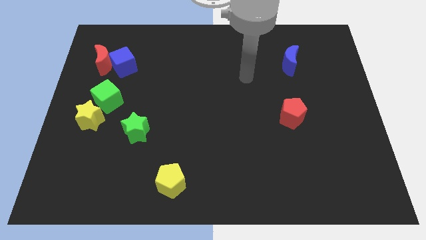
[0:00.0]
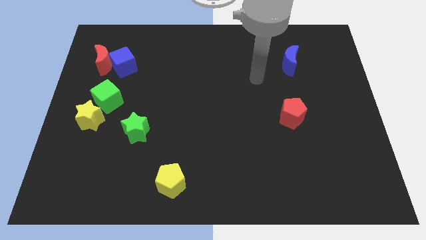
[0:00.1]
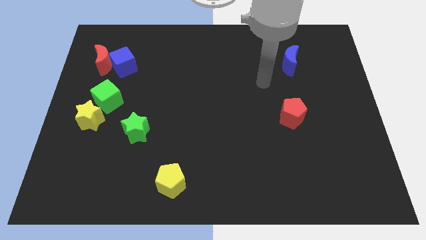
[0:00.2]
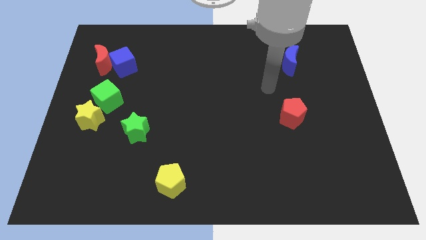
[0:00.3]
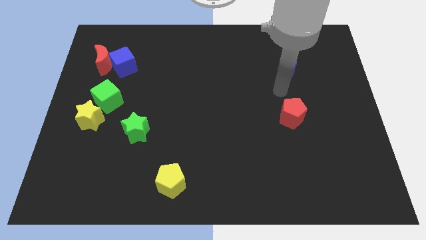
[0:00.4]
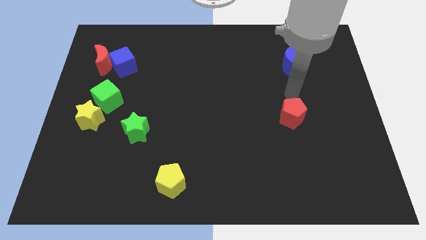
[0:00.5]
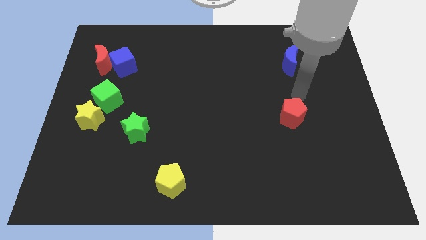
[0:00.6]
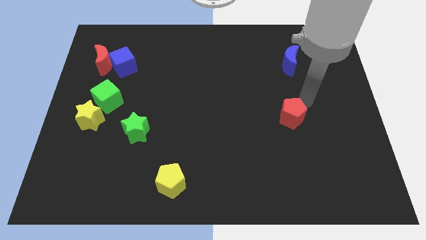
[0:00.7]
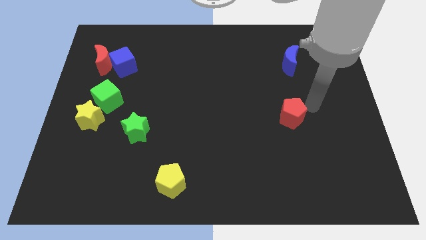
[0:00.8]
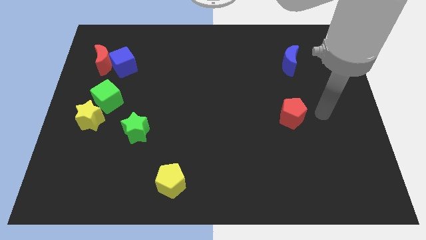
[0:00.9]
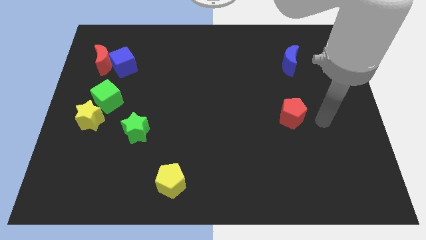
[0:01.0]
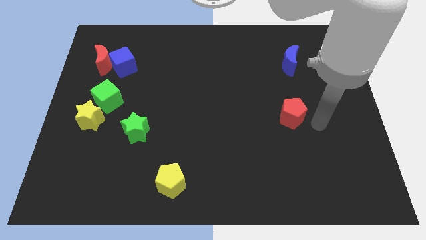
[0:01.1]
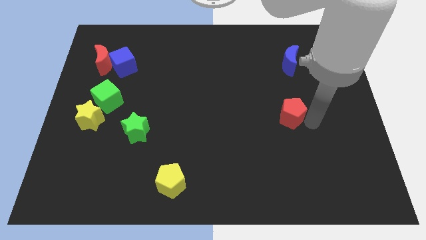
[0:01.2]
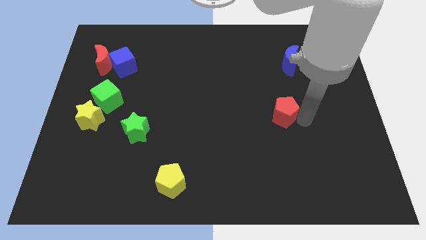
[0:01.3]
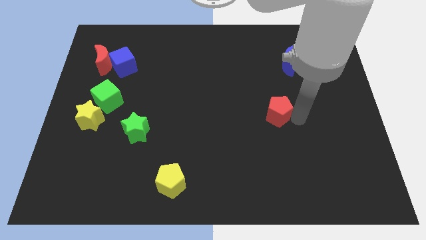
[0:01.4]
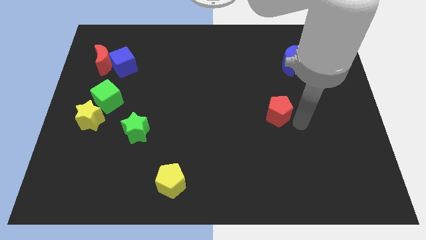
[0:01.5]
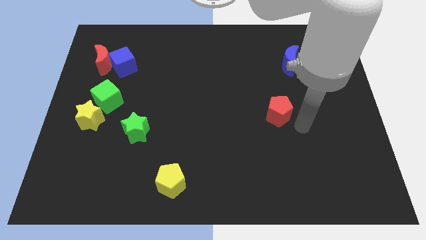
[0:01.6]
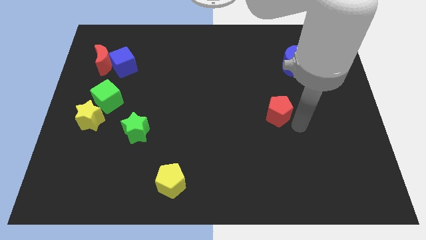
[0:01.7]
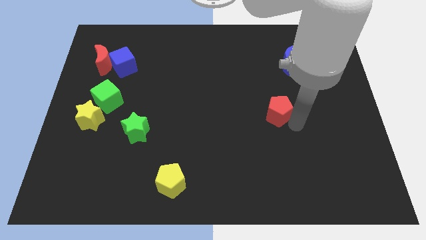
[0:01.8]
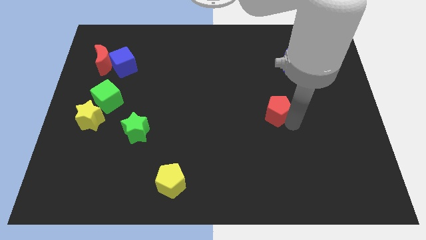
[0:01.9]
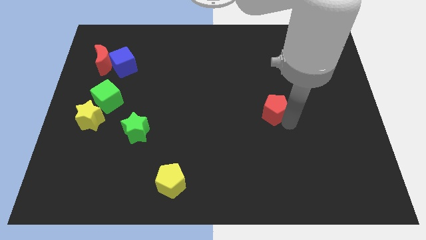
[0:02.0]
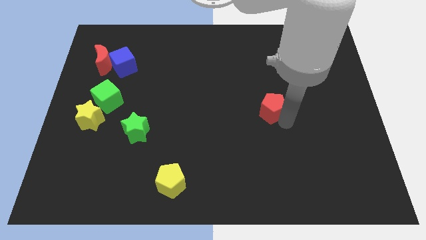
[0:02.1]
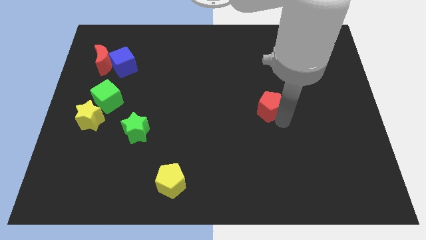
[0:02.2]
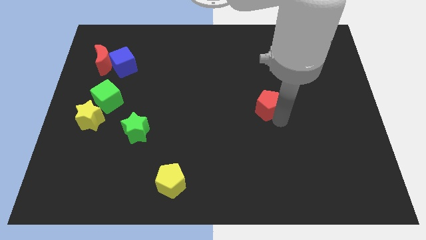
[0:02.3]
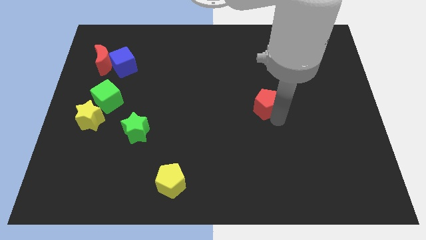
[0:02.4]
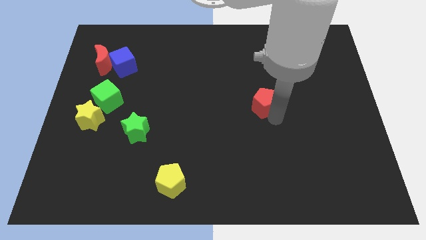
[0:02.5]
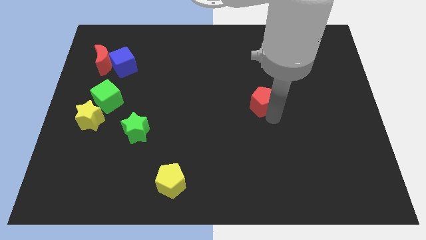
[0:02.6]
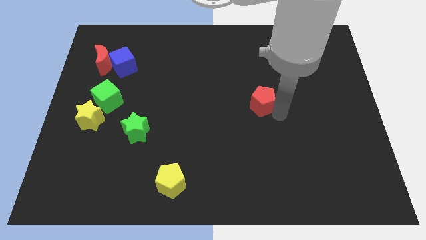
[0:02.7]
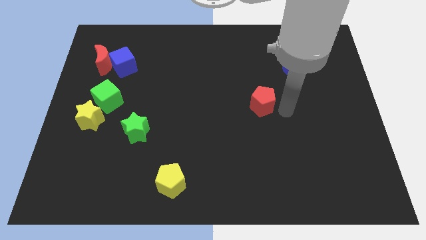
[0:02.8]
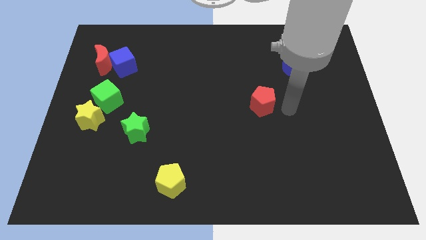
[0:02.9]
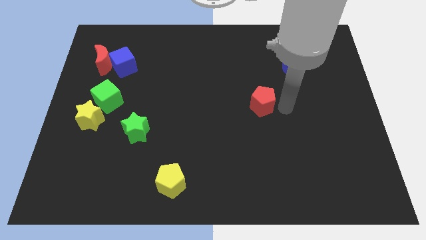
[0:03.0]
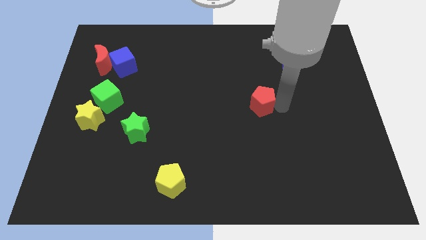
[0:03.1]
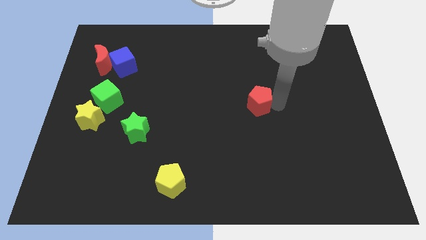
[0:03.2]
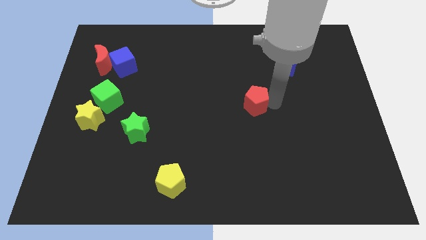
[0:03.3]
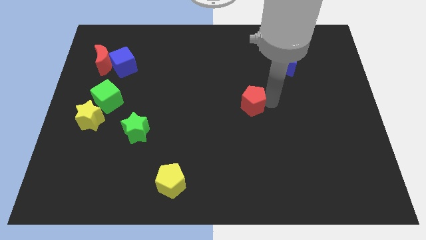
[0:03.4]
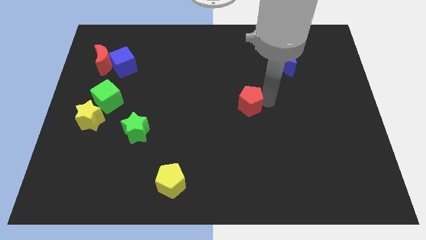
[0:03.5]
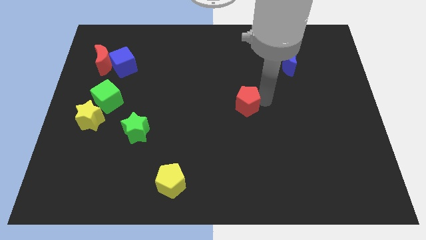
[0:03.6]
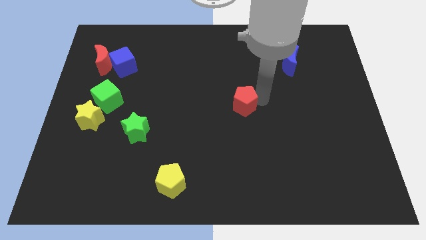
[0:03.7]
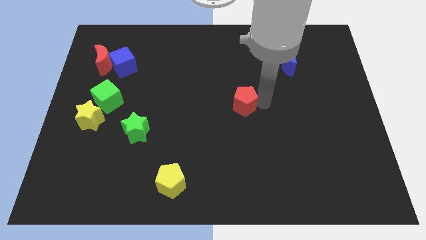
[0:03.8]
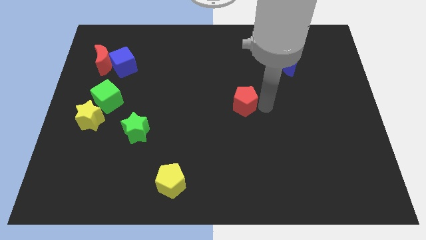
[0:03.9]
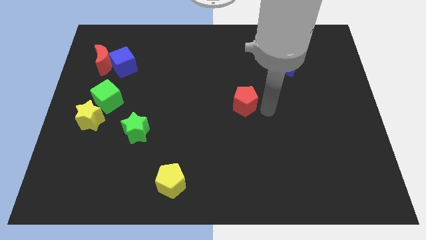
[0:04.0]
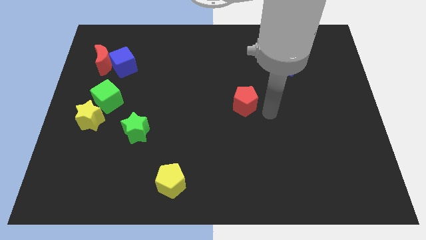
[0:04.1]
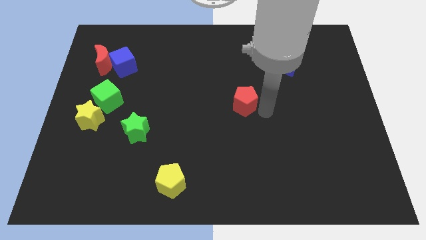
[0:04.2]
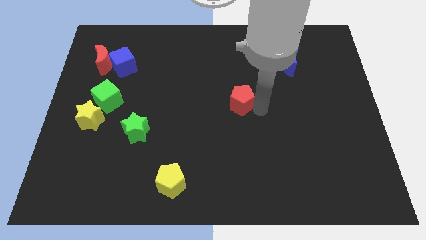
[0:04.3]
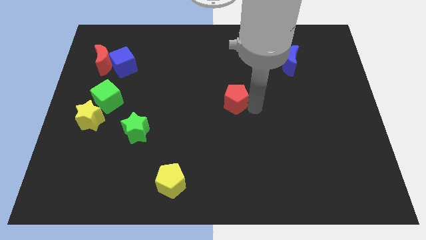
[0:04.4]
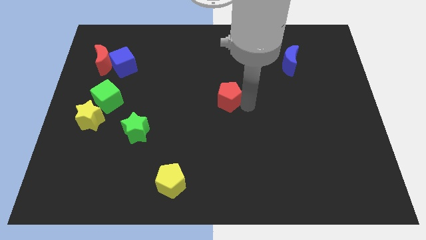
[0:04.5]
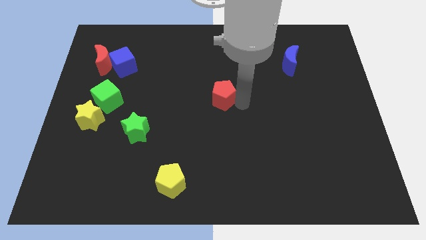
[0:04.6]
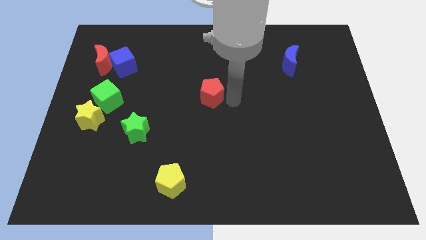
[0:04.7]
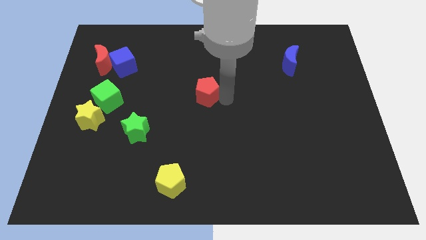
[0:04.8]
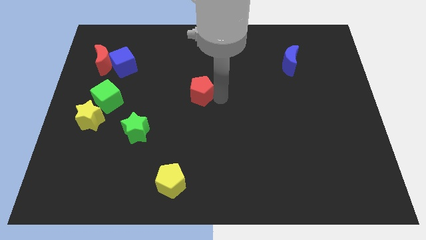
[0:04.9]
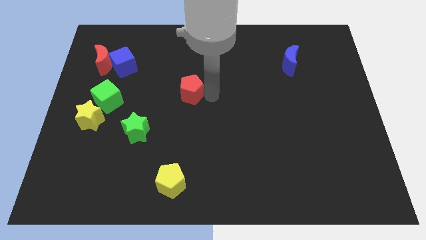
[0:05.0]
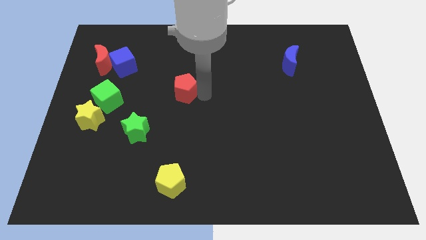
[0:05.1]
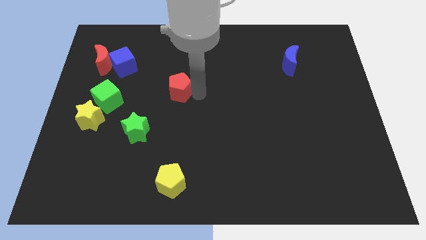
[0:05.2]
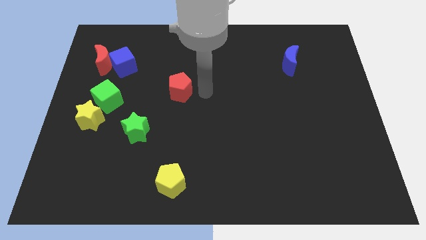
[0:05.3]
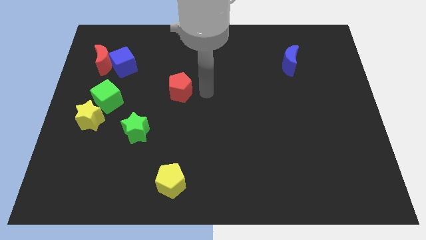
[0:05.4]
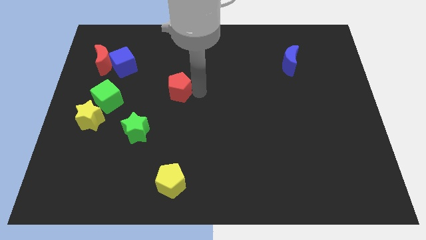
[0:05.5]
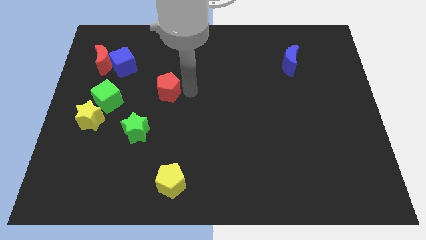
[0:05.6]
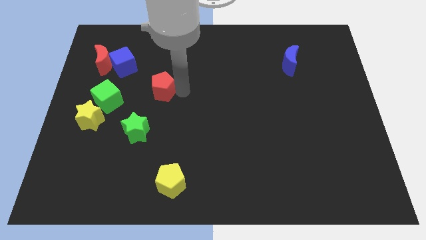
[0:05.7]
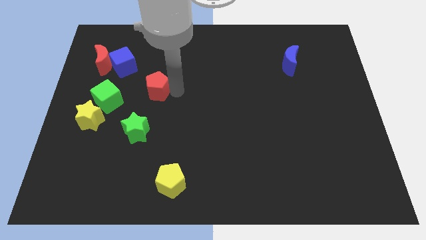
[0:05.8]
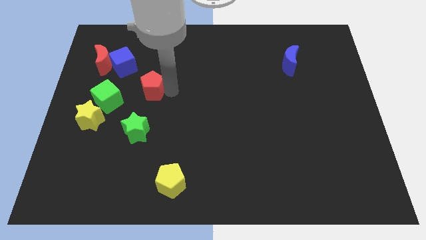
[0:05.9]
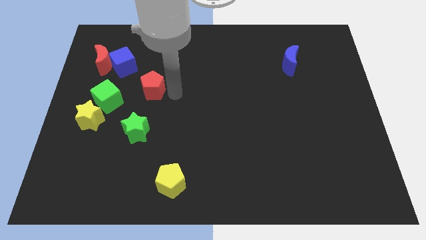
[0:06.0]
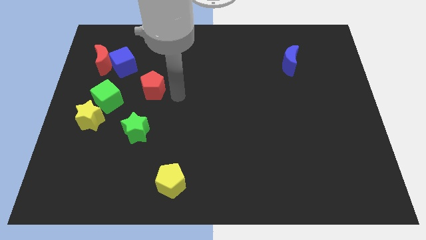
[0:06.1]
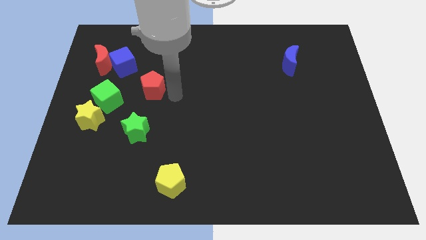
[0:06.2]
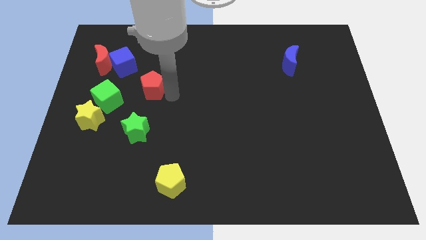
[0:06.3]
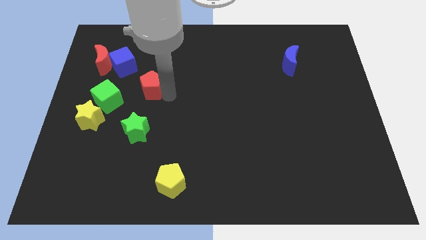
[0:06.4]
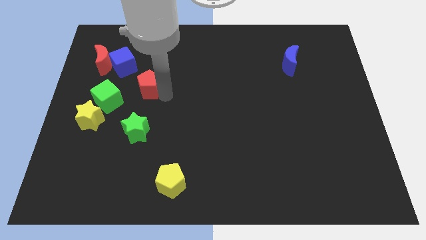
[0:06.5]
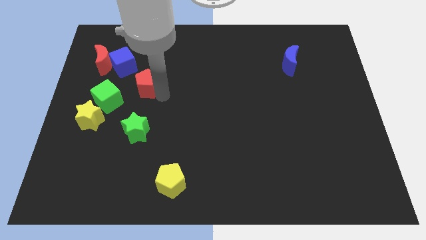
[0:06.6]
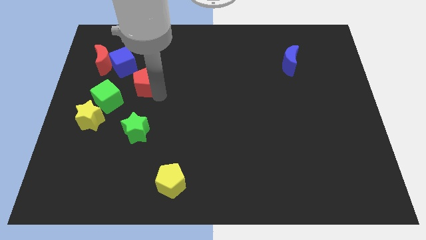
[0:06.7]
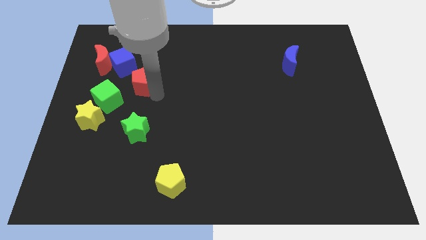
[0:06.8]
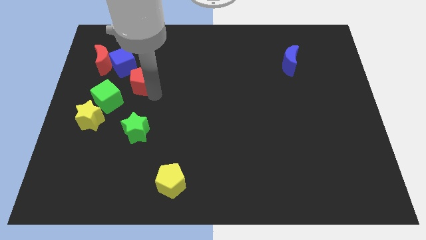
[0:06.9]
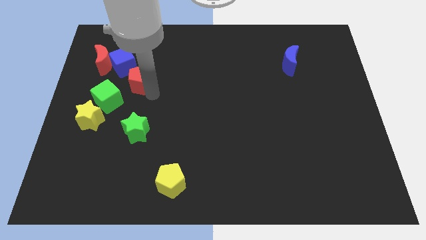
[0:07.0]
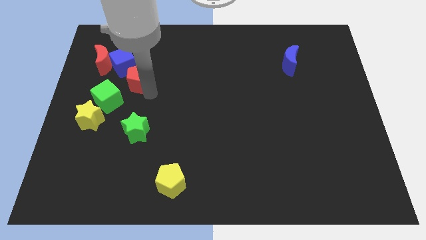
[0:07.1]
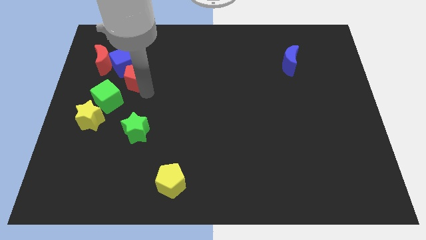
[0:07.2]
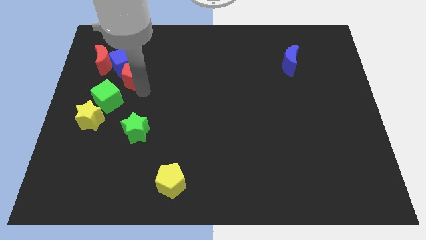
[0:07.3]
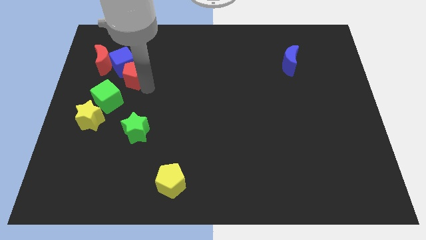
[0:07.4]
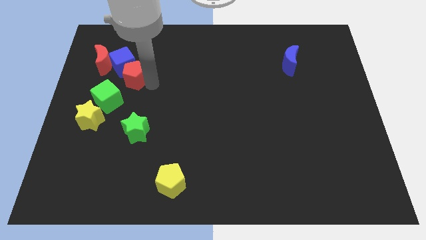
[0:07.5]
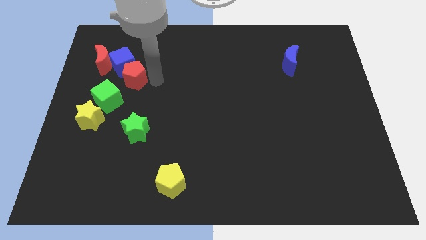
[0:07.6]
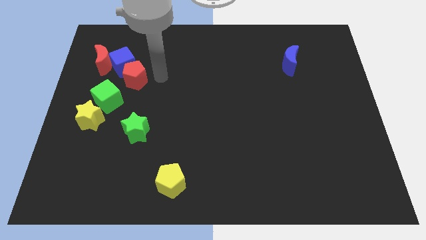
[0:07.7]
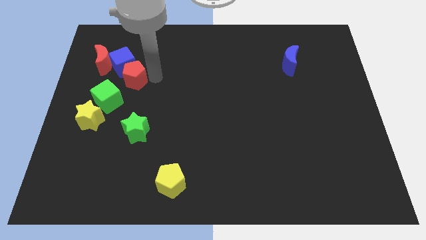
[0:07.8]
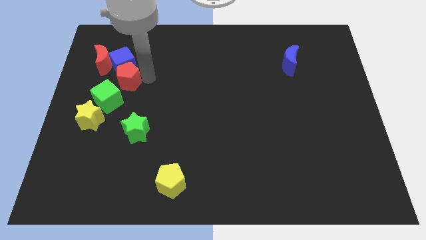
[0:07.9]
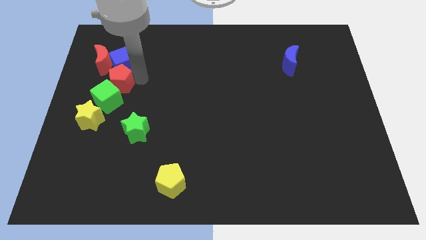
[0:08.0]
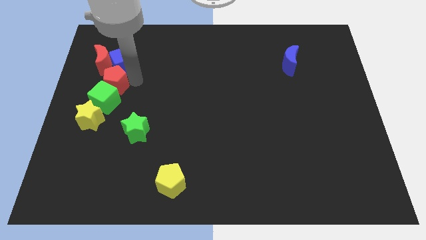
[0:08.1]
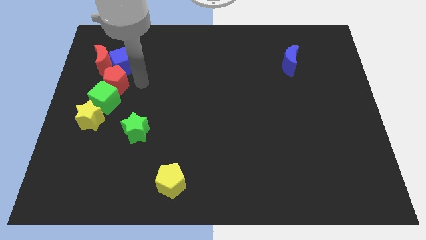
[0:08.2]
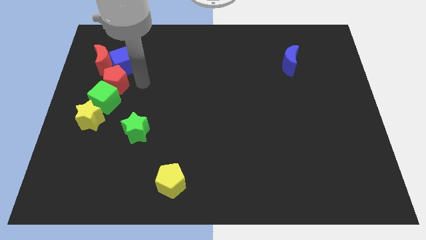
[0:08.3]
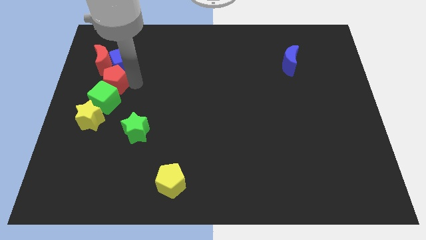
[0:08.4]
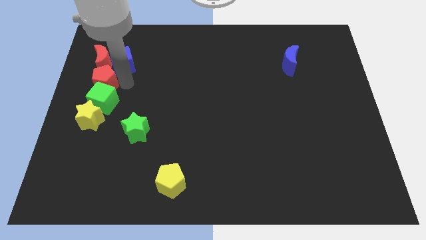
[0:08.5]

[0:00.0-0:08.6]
move the red pentagon to the center left
